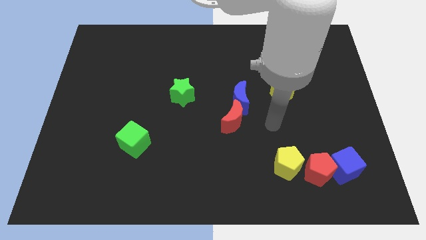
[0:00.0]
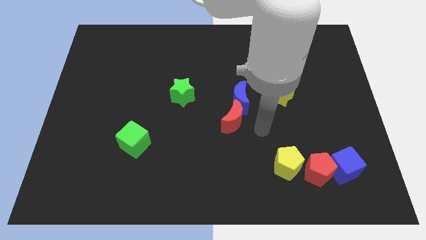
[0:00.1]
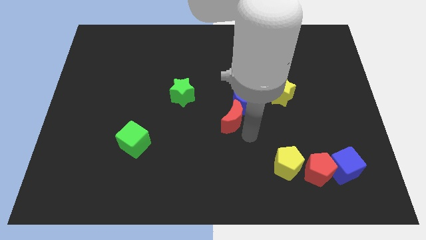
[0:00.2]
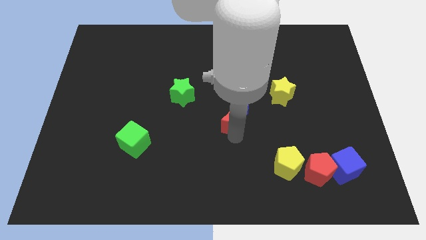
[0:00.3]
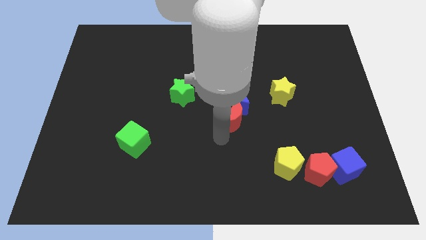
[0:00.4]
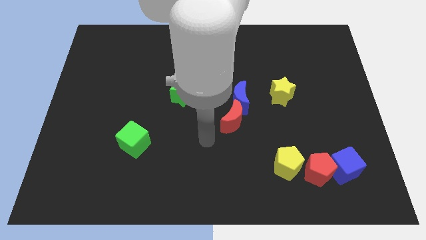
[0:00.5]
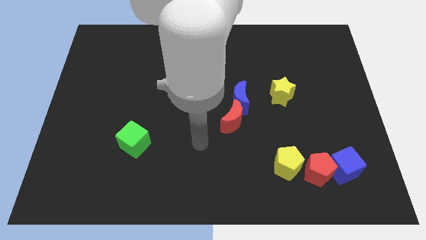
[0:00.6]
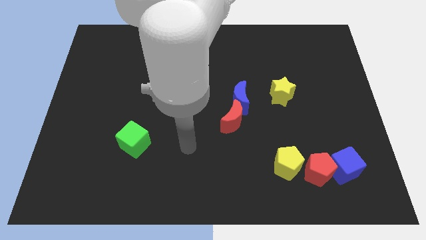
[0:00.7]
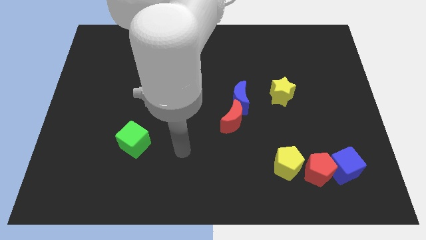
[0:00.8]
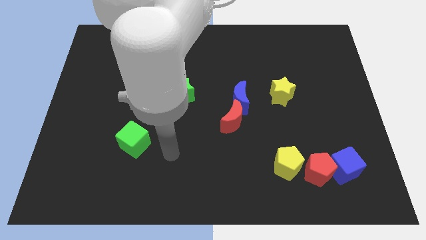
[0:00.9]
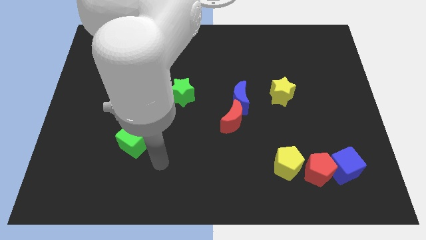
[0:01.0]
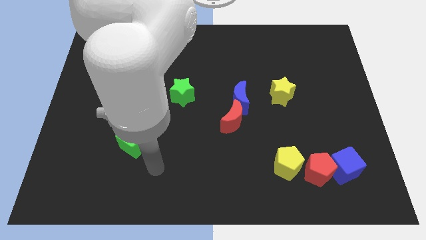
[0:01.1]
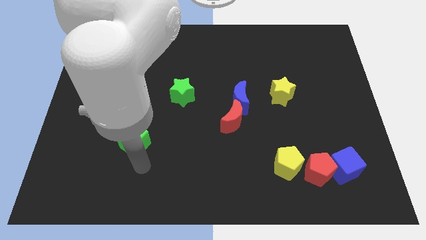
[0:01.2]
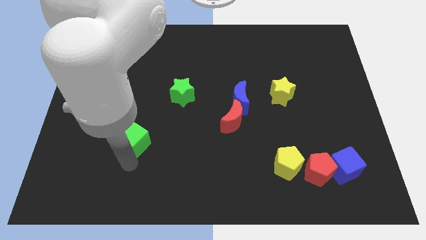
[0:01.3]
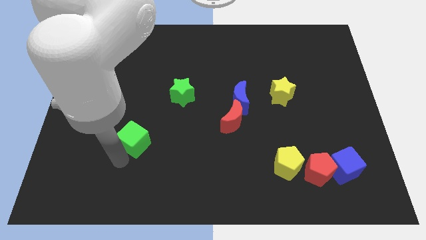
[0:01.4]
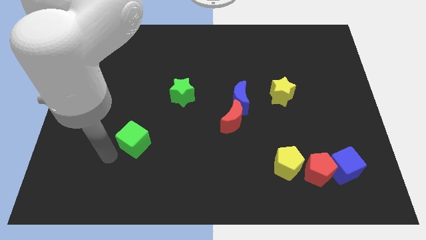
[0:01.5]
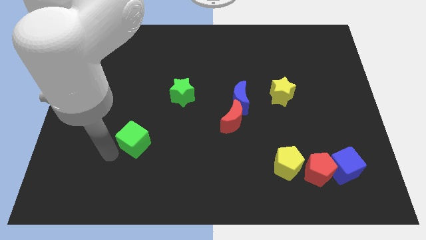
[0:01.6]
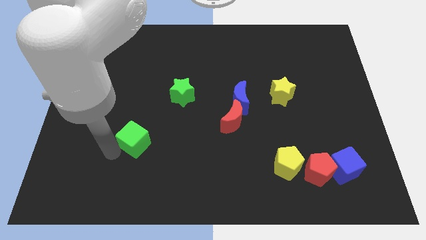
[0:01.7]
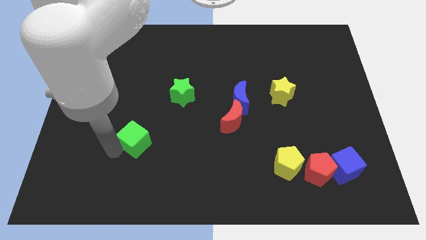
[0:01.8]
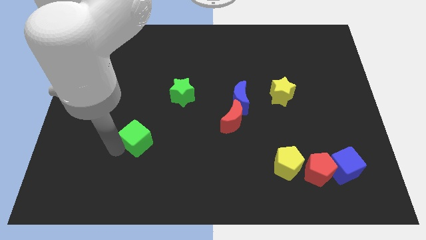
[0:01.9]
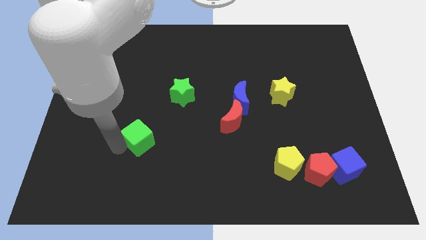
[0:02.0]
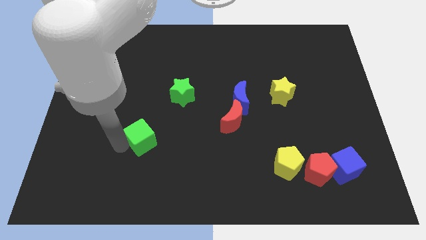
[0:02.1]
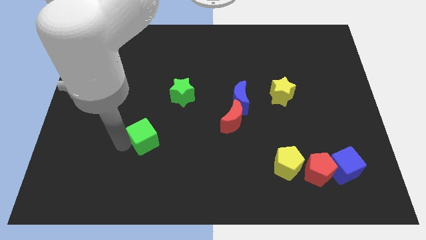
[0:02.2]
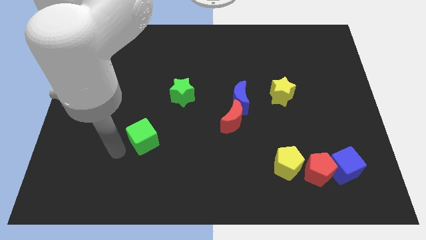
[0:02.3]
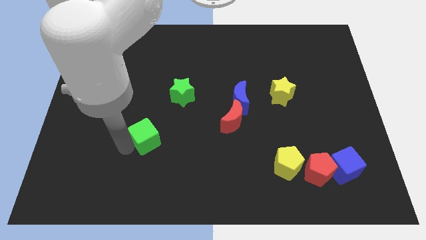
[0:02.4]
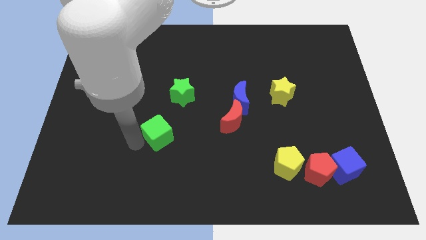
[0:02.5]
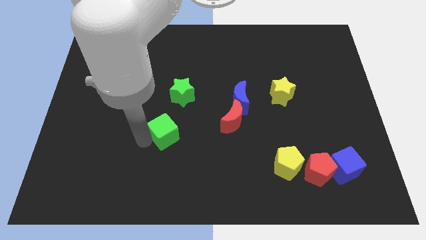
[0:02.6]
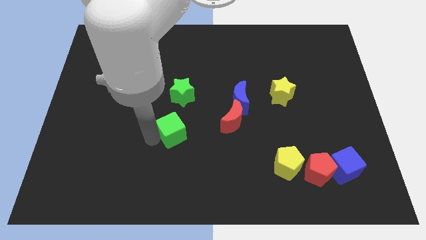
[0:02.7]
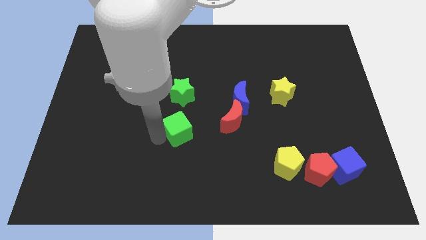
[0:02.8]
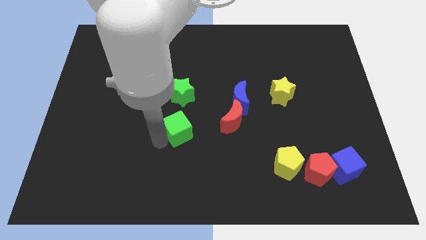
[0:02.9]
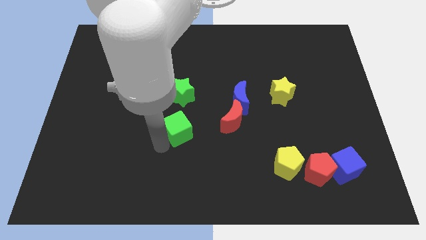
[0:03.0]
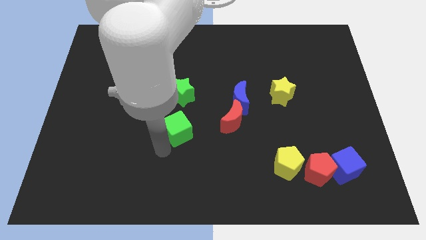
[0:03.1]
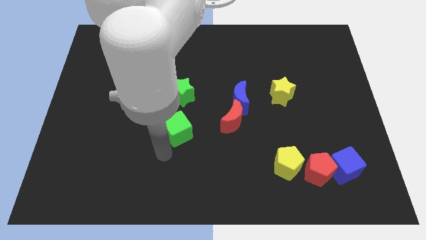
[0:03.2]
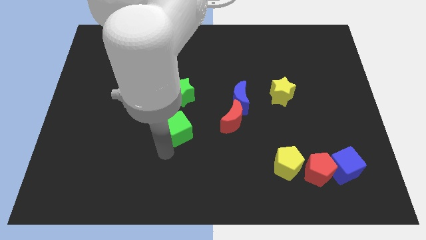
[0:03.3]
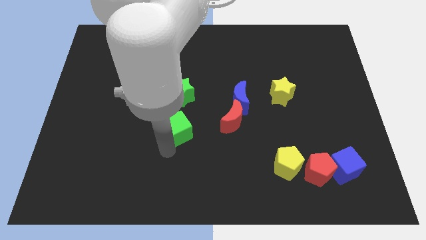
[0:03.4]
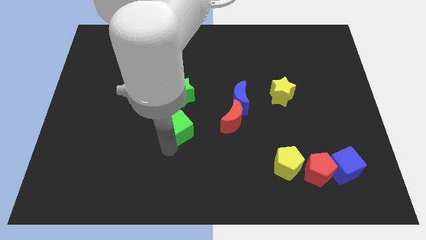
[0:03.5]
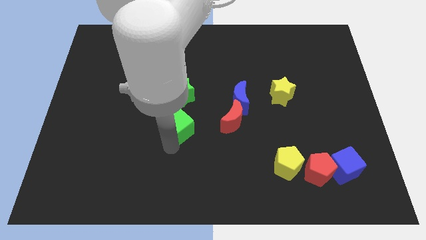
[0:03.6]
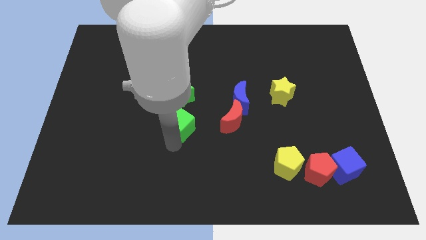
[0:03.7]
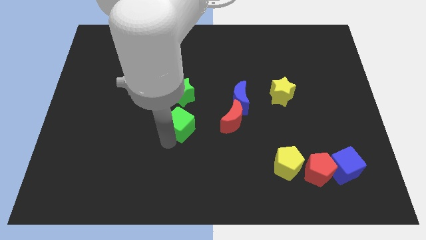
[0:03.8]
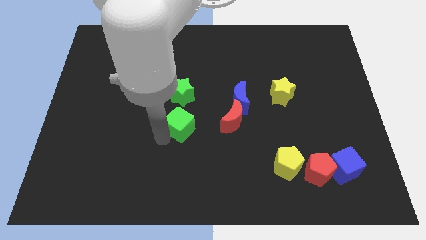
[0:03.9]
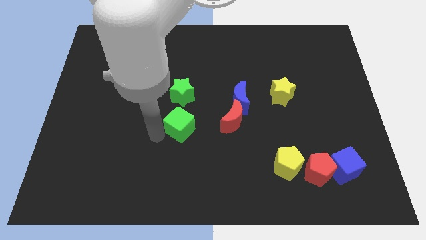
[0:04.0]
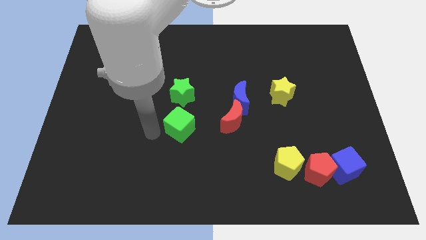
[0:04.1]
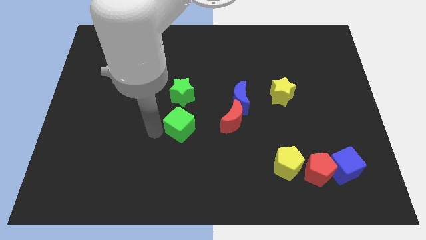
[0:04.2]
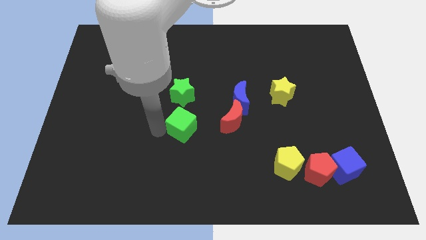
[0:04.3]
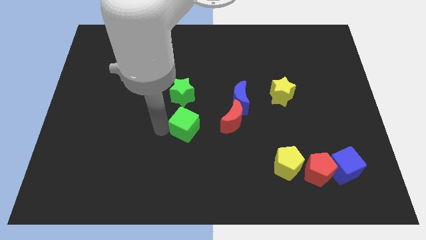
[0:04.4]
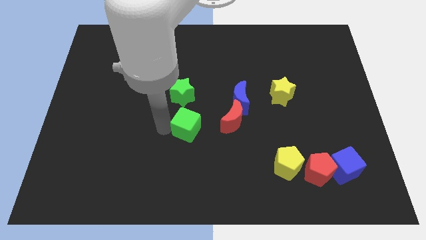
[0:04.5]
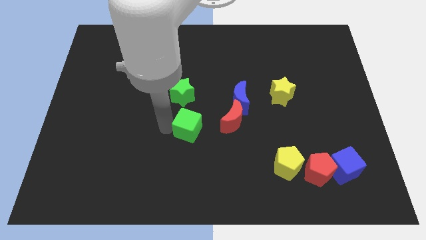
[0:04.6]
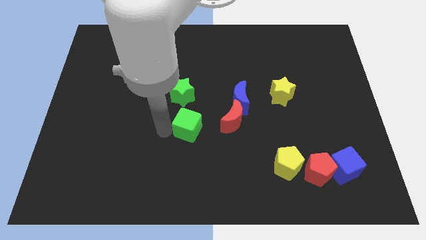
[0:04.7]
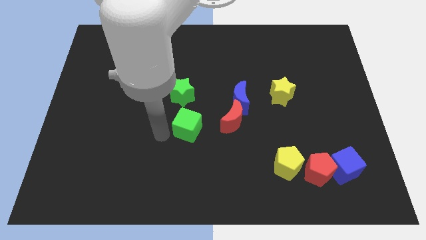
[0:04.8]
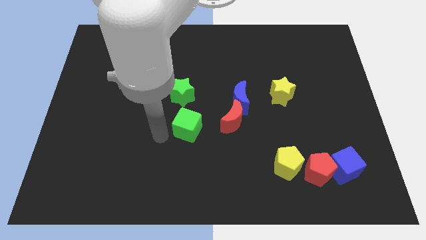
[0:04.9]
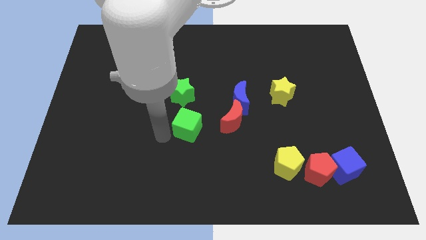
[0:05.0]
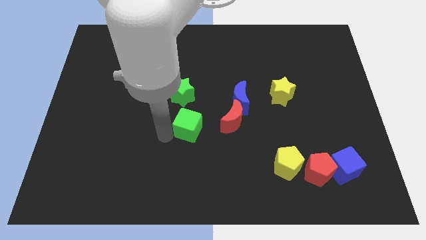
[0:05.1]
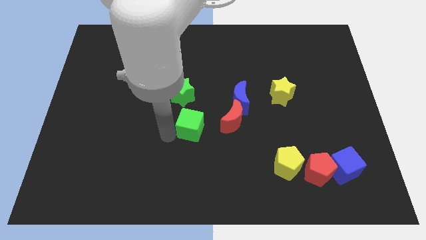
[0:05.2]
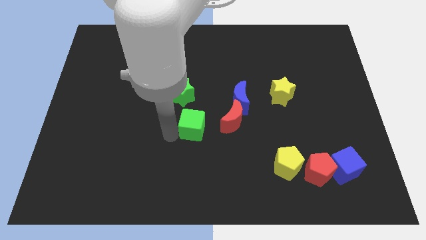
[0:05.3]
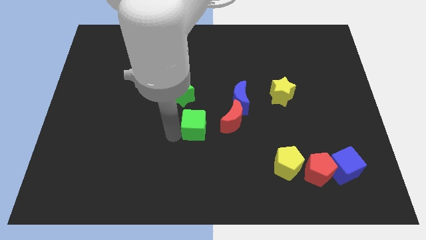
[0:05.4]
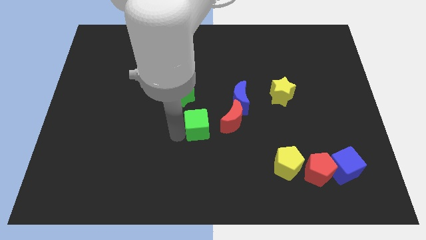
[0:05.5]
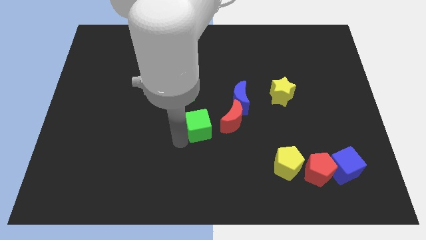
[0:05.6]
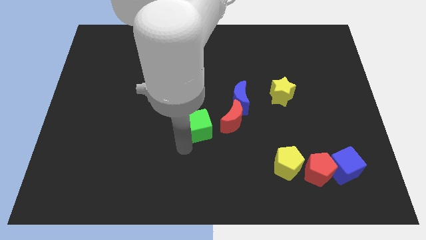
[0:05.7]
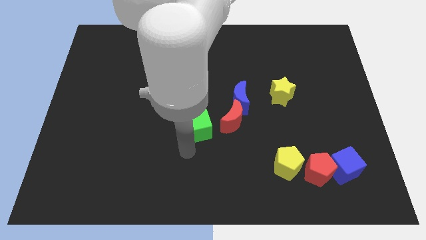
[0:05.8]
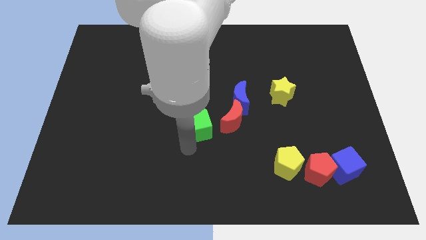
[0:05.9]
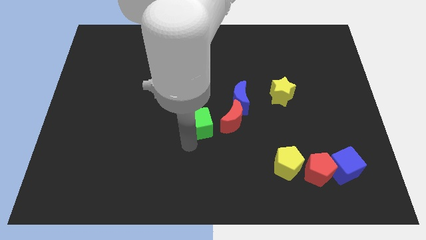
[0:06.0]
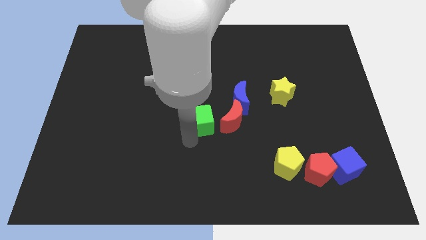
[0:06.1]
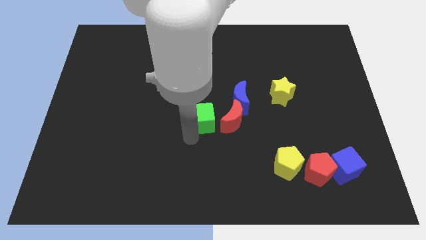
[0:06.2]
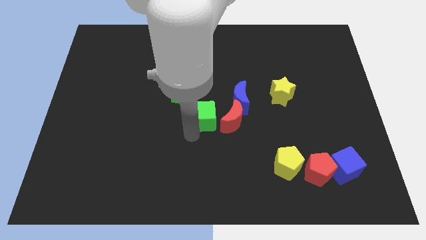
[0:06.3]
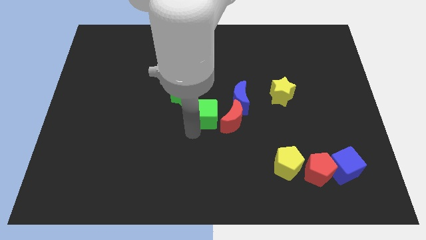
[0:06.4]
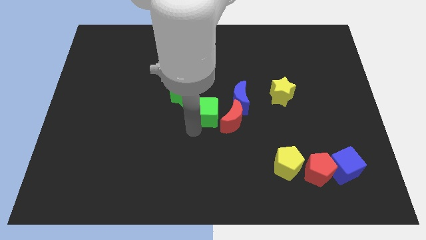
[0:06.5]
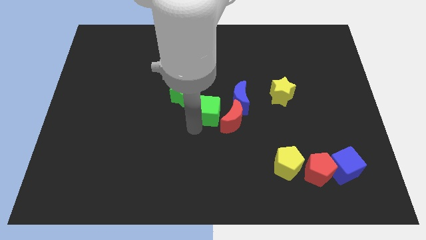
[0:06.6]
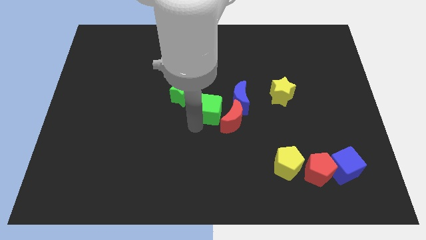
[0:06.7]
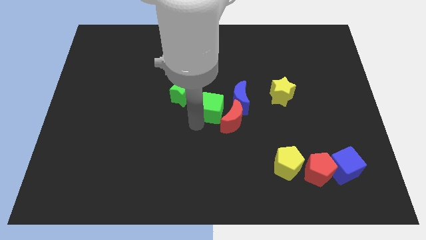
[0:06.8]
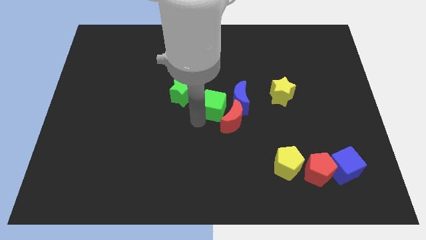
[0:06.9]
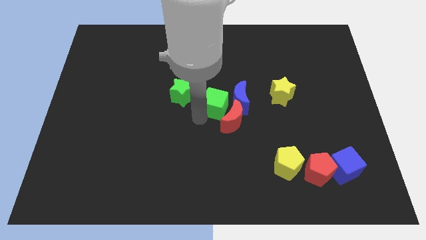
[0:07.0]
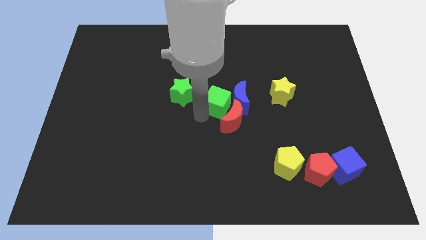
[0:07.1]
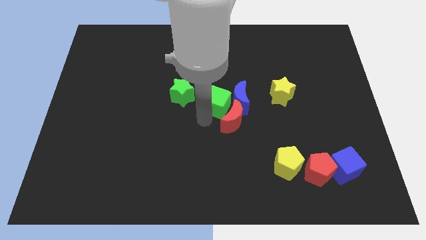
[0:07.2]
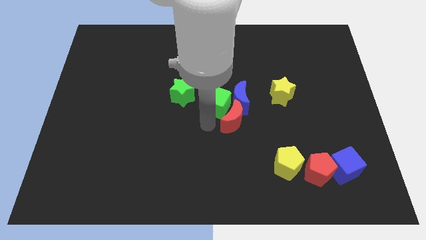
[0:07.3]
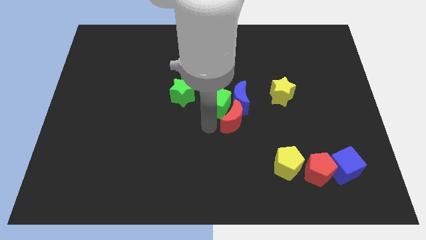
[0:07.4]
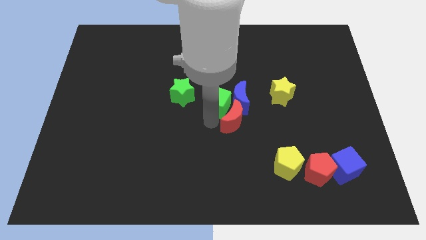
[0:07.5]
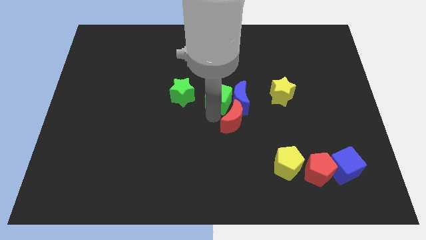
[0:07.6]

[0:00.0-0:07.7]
push the green cube upwards and to the right

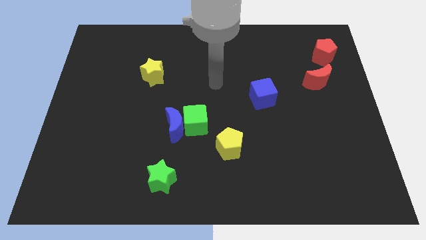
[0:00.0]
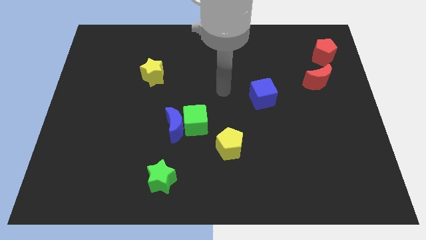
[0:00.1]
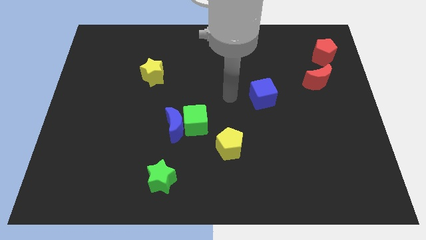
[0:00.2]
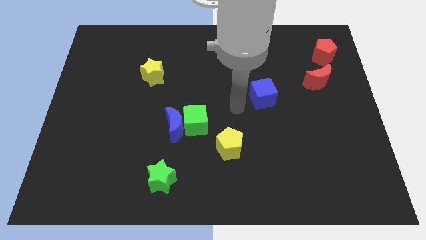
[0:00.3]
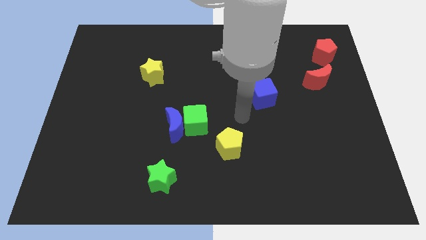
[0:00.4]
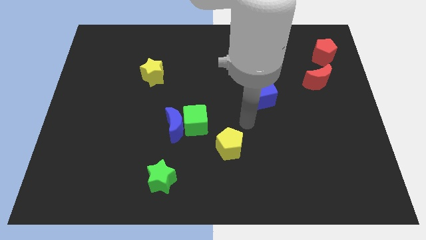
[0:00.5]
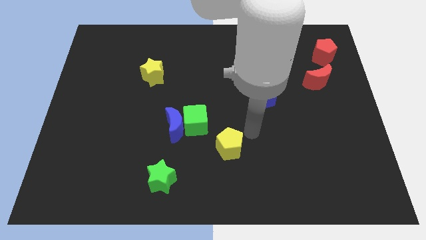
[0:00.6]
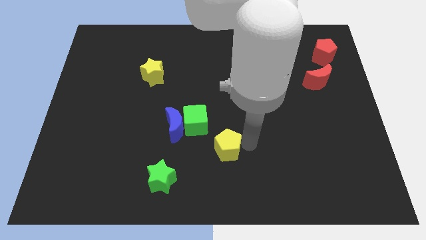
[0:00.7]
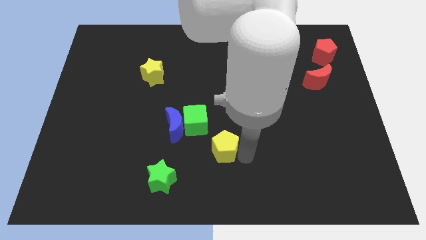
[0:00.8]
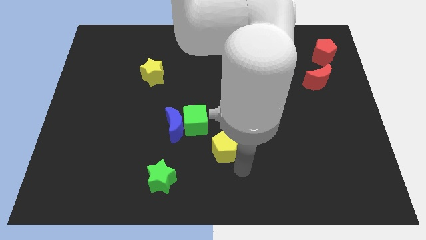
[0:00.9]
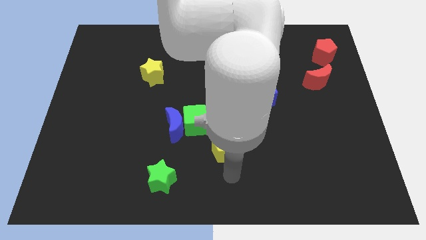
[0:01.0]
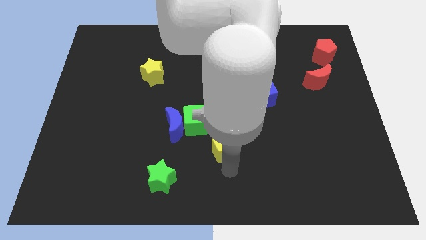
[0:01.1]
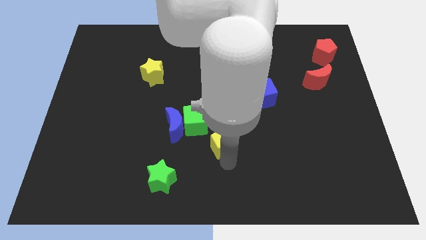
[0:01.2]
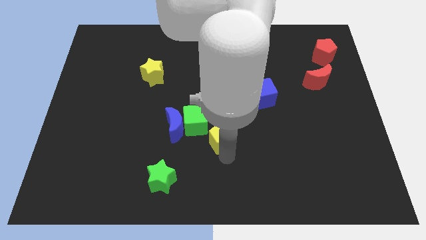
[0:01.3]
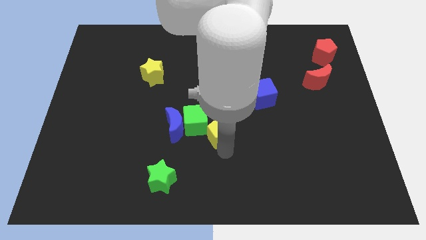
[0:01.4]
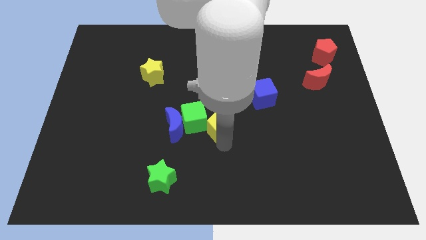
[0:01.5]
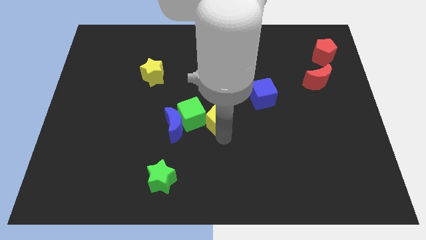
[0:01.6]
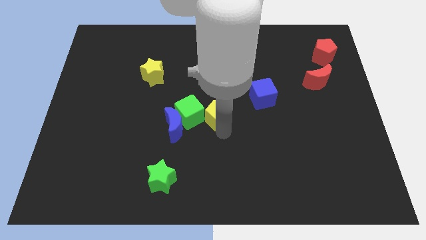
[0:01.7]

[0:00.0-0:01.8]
push the yellow pentagon a little bit diagonally up and to the left
